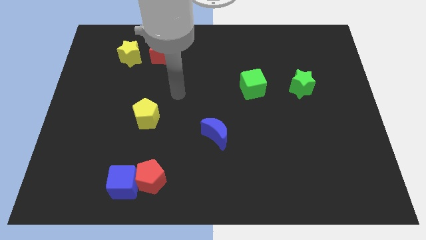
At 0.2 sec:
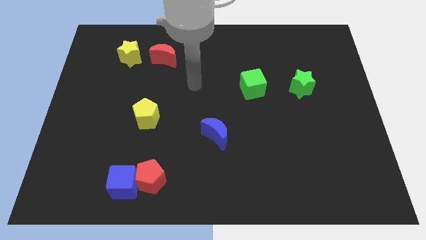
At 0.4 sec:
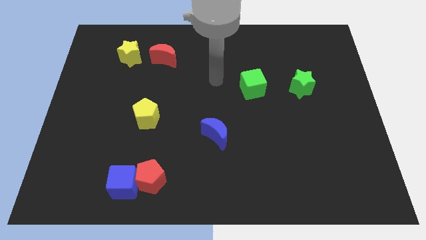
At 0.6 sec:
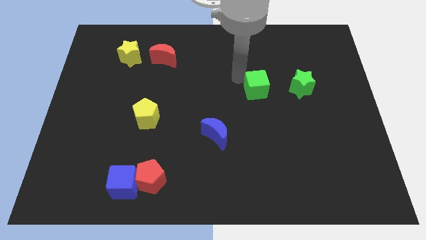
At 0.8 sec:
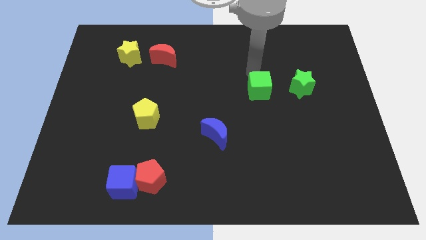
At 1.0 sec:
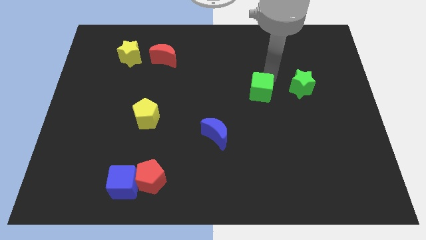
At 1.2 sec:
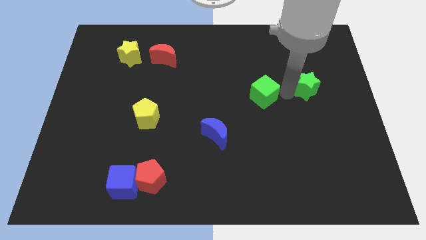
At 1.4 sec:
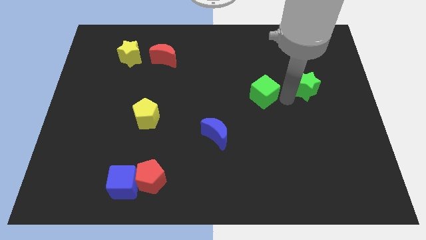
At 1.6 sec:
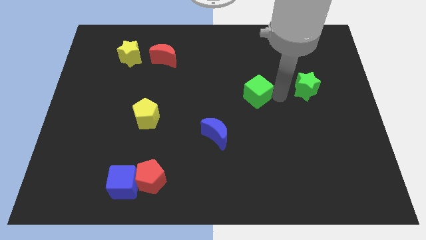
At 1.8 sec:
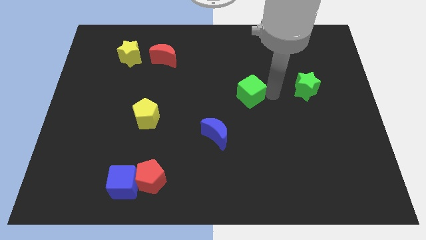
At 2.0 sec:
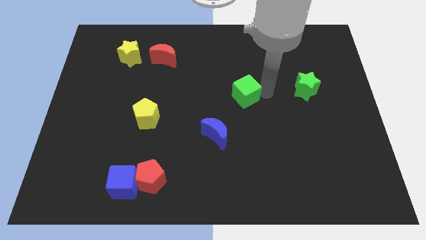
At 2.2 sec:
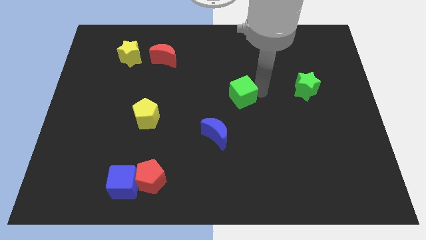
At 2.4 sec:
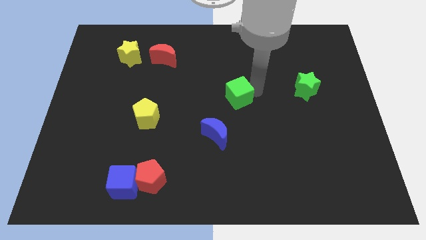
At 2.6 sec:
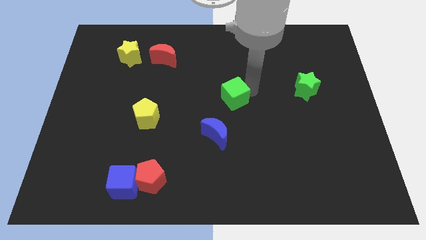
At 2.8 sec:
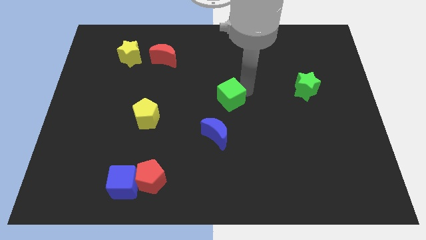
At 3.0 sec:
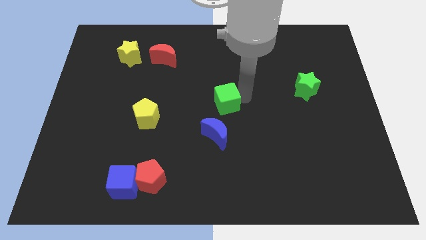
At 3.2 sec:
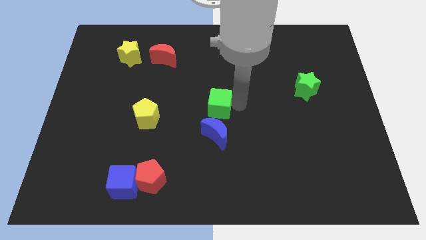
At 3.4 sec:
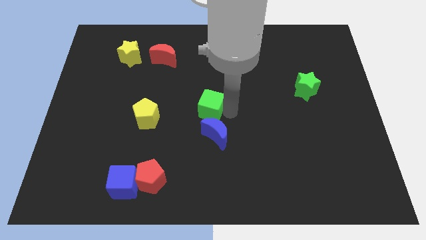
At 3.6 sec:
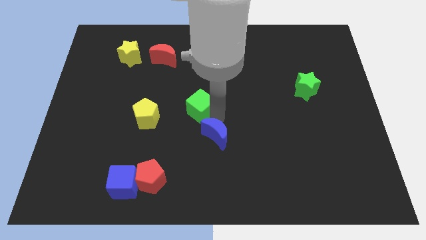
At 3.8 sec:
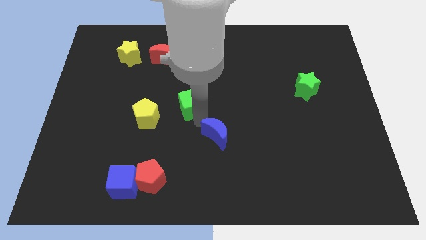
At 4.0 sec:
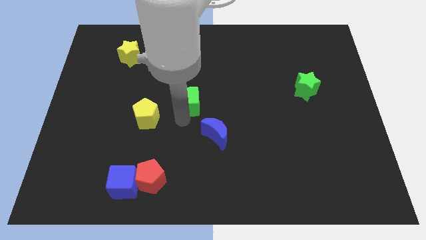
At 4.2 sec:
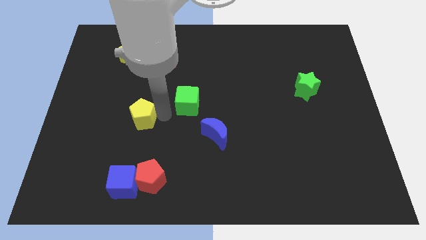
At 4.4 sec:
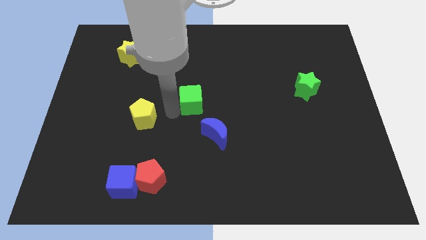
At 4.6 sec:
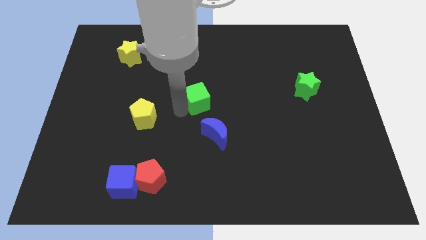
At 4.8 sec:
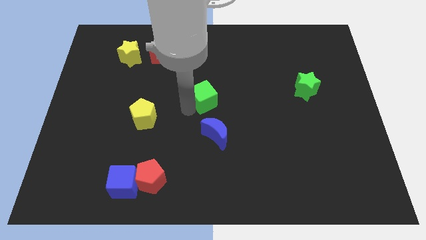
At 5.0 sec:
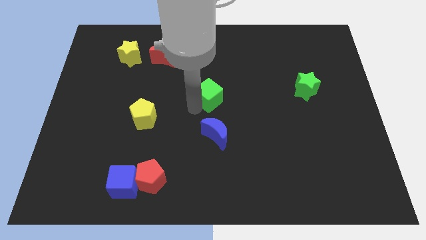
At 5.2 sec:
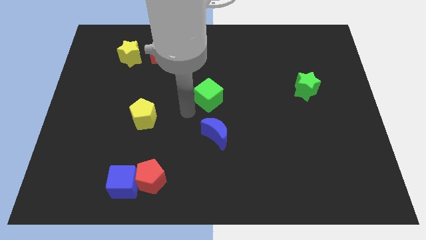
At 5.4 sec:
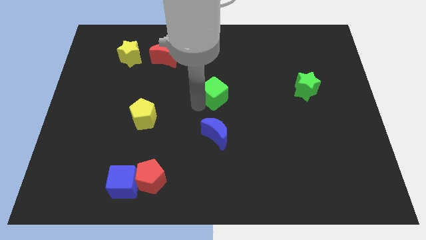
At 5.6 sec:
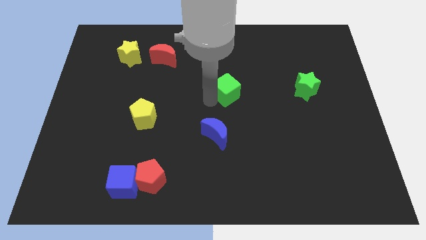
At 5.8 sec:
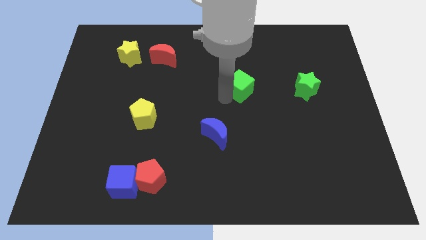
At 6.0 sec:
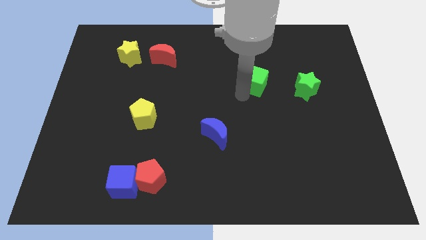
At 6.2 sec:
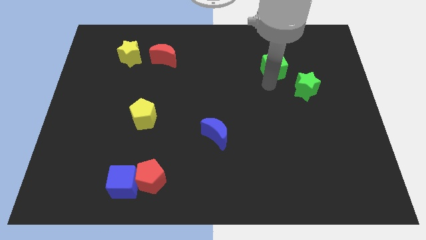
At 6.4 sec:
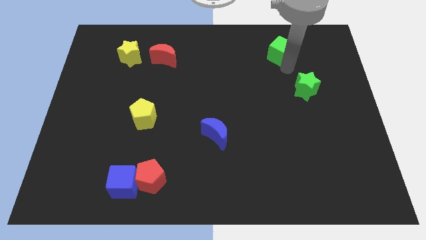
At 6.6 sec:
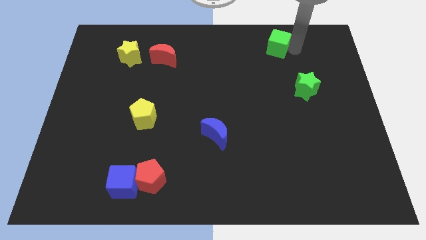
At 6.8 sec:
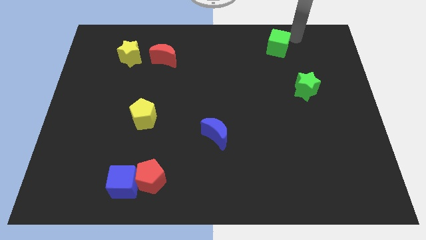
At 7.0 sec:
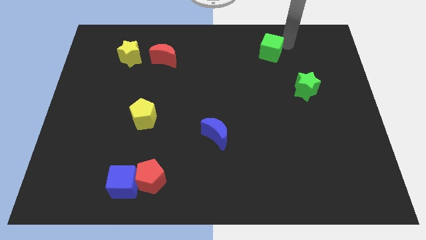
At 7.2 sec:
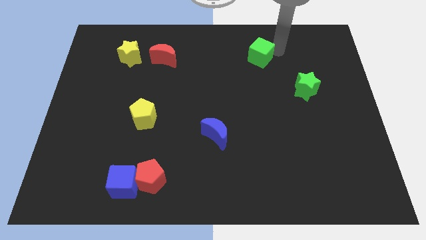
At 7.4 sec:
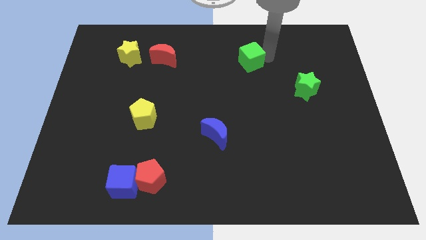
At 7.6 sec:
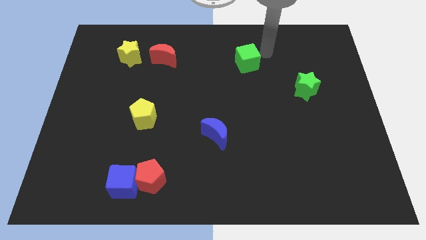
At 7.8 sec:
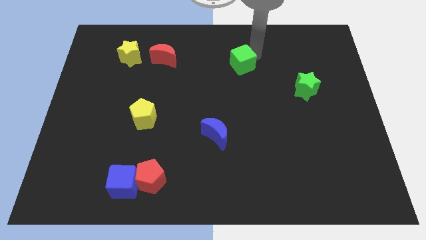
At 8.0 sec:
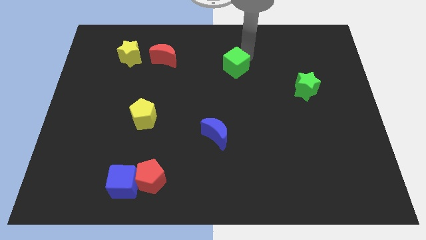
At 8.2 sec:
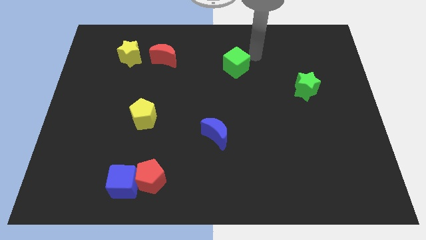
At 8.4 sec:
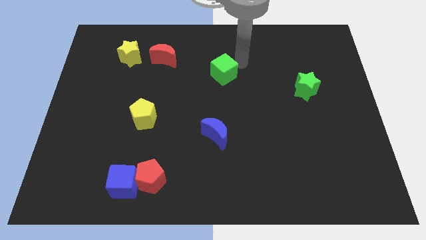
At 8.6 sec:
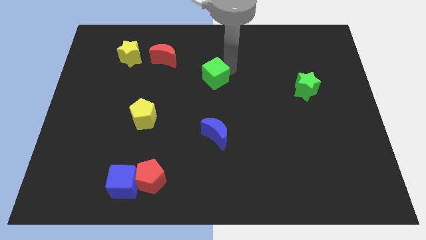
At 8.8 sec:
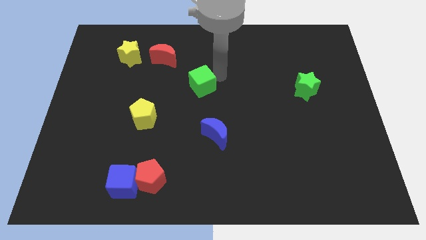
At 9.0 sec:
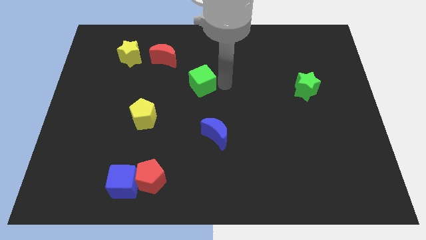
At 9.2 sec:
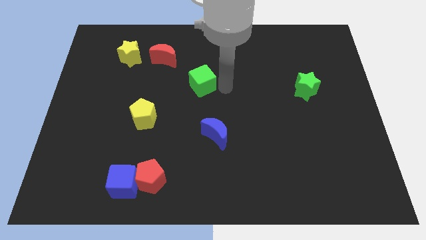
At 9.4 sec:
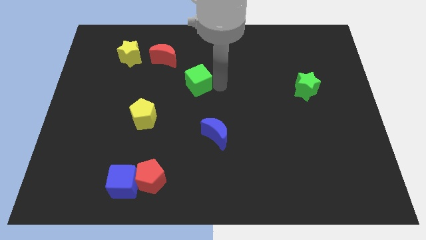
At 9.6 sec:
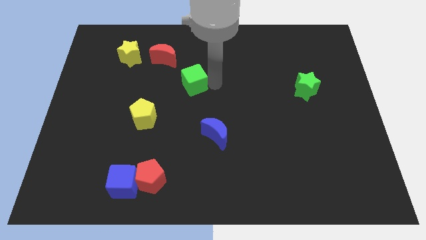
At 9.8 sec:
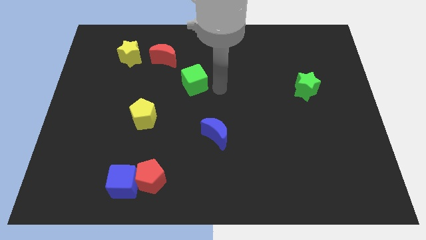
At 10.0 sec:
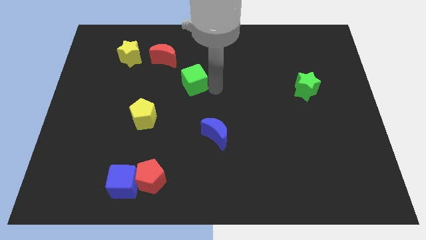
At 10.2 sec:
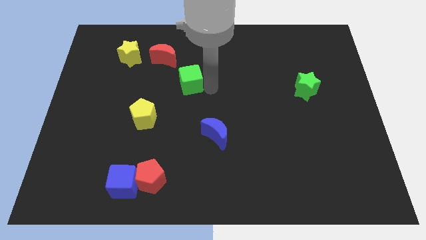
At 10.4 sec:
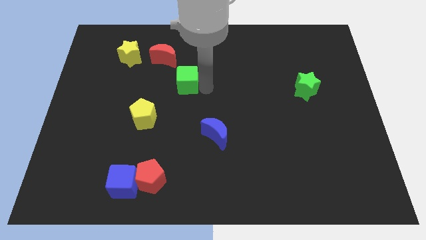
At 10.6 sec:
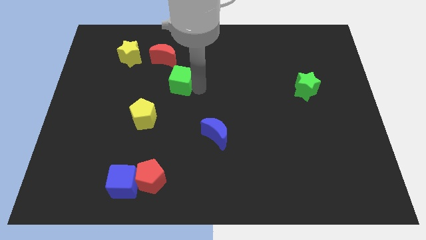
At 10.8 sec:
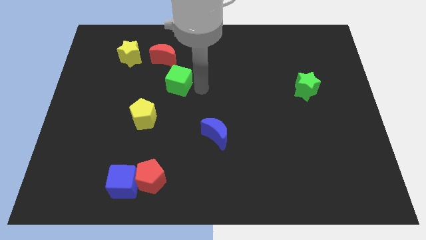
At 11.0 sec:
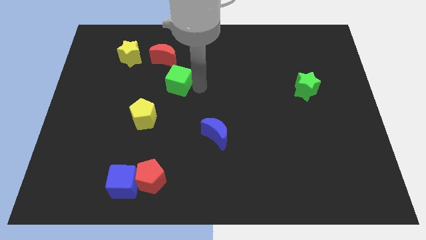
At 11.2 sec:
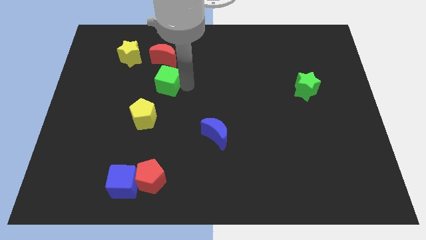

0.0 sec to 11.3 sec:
push the green cube left

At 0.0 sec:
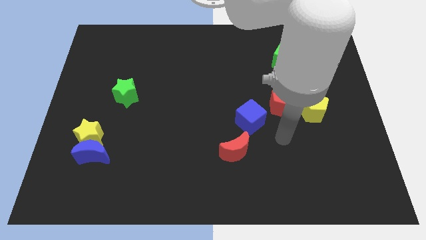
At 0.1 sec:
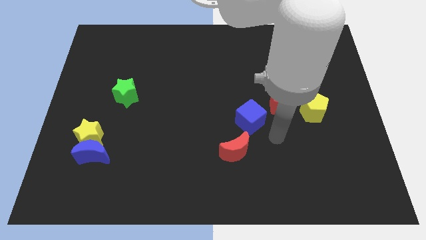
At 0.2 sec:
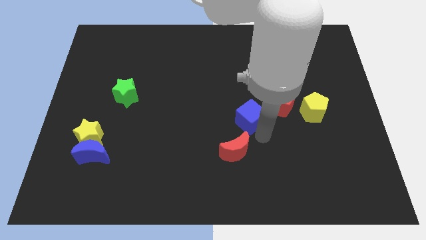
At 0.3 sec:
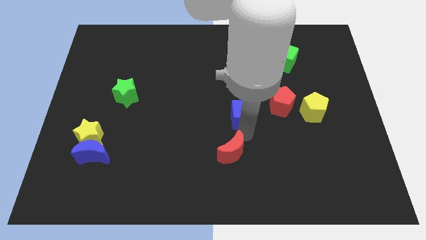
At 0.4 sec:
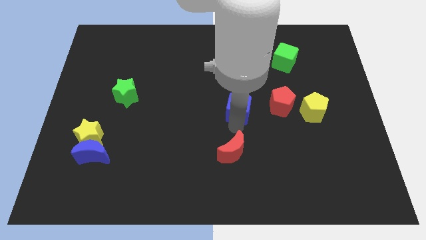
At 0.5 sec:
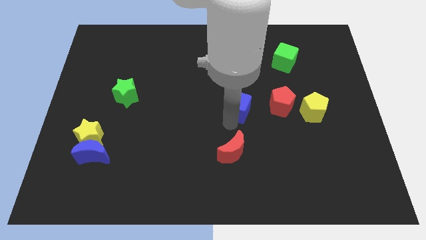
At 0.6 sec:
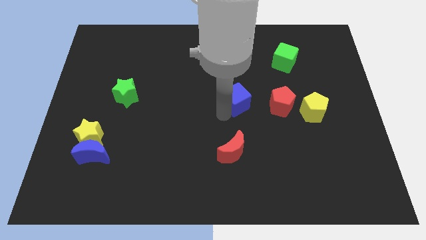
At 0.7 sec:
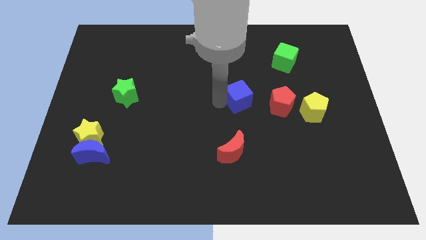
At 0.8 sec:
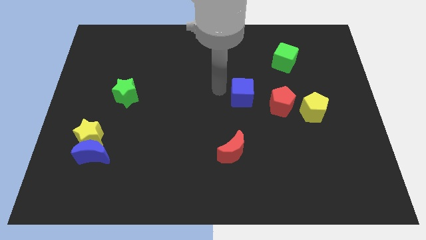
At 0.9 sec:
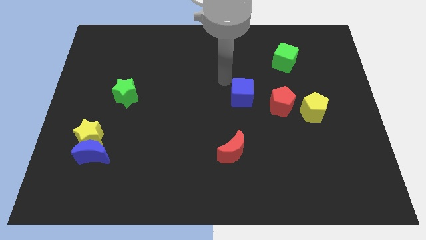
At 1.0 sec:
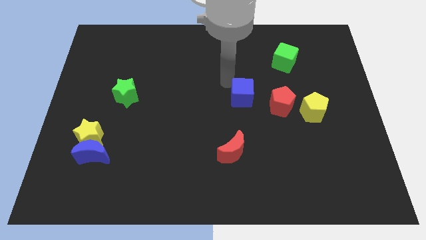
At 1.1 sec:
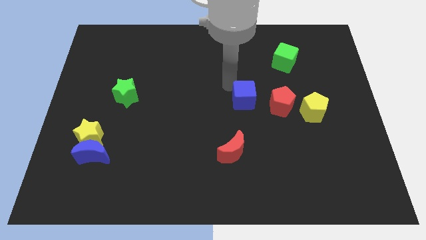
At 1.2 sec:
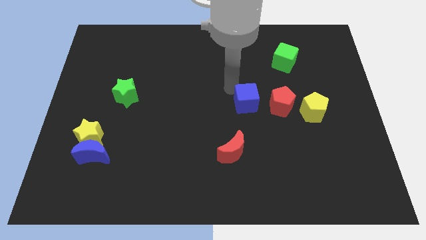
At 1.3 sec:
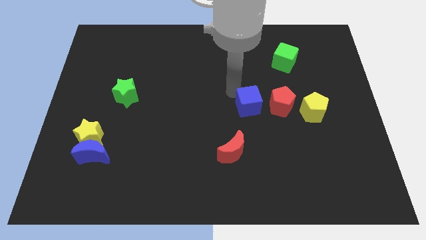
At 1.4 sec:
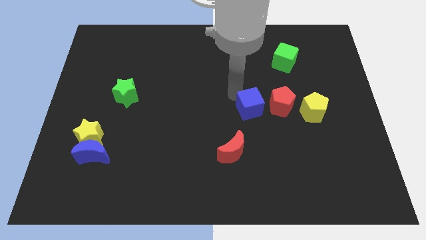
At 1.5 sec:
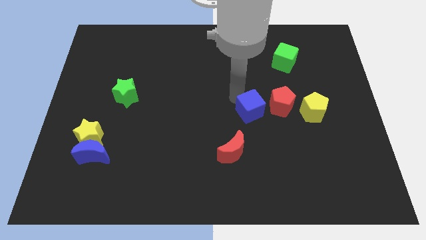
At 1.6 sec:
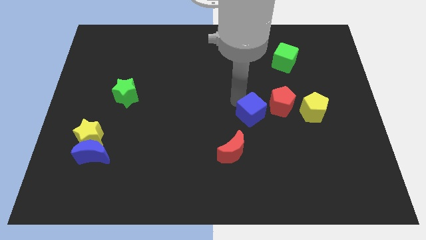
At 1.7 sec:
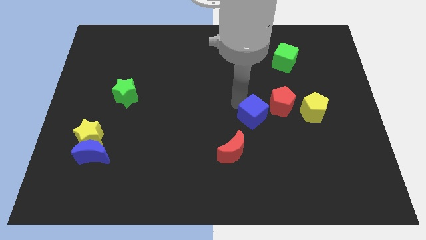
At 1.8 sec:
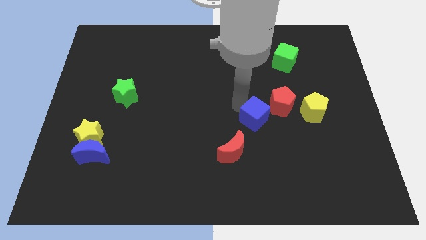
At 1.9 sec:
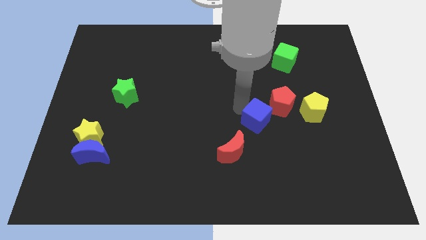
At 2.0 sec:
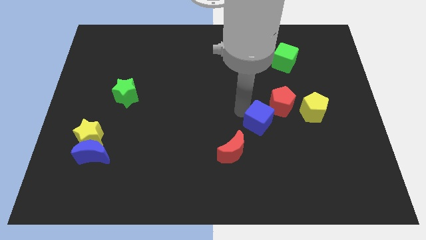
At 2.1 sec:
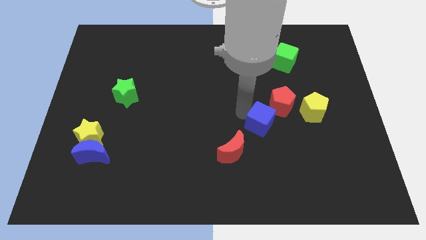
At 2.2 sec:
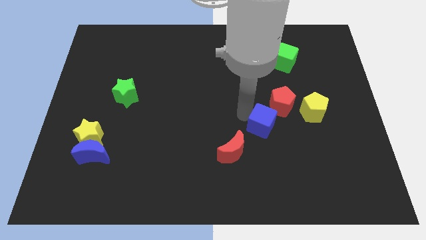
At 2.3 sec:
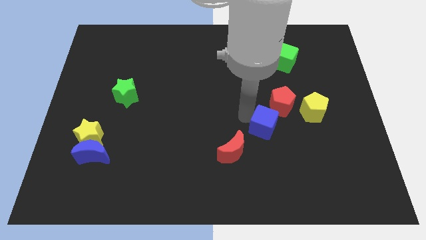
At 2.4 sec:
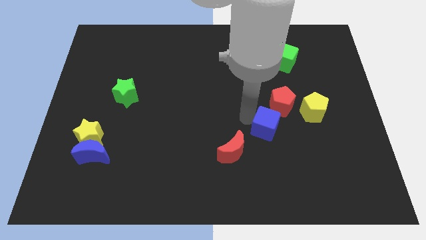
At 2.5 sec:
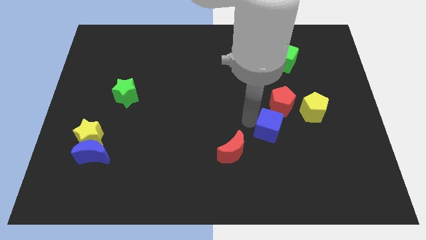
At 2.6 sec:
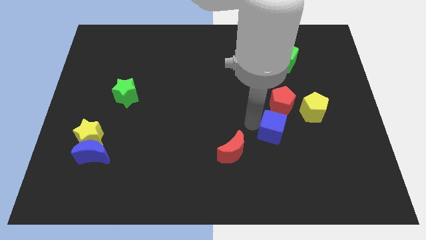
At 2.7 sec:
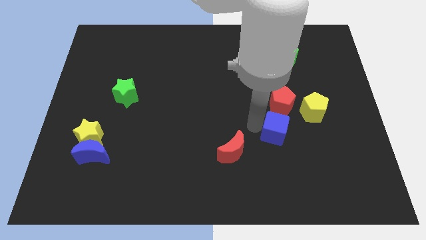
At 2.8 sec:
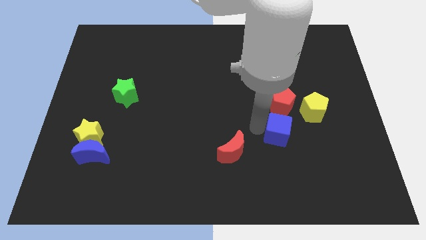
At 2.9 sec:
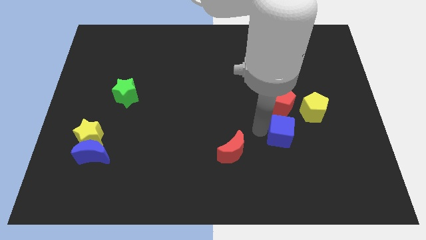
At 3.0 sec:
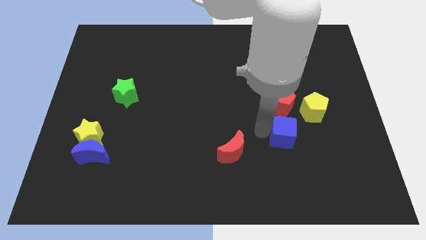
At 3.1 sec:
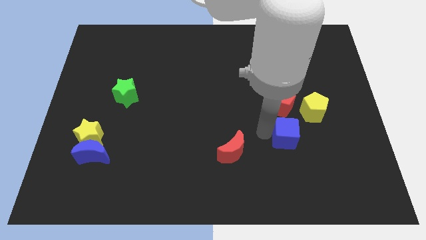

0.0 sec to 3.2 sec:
move the blue cube right a little bit
